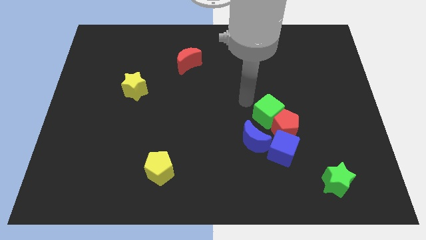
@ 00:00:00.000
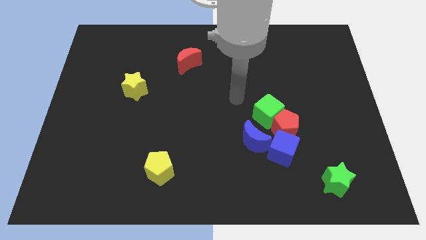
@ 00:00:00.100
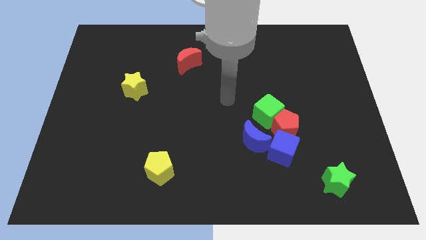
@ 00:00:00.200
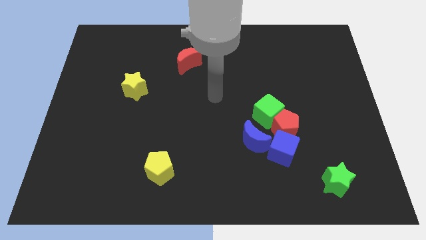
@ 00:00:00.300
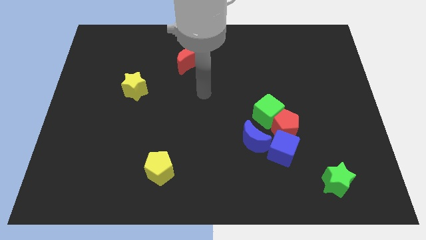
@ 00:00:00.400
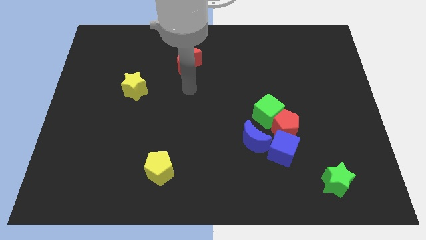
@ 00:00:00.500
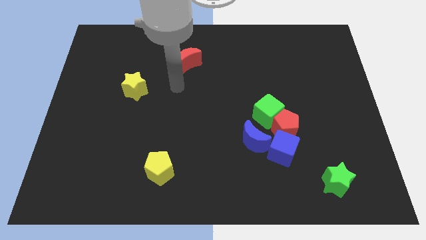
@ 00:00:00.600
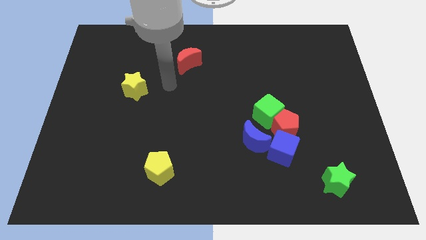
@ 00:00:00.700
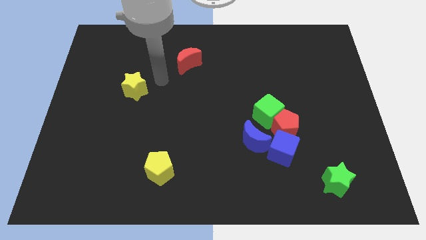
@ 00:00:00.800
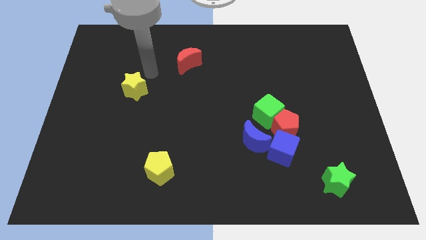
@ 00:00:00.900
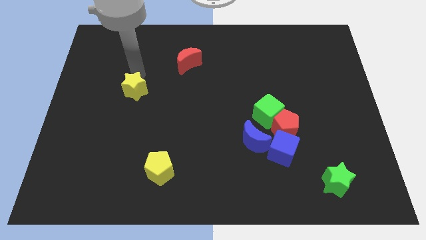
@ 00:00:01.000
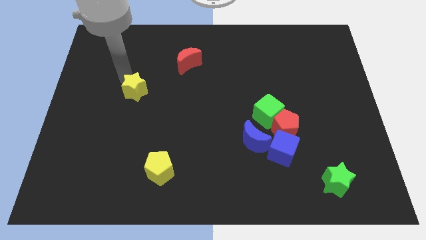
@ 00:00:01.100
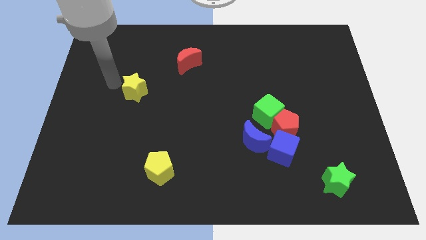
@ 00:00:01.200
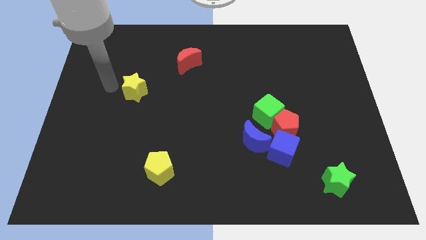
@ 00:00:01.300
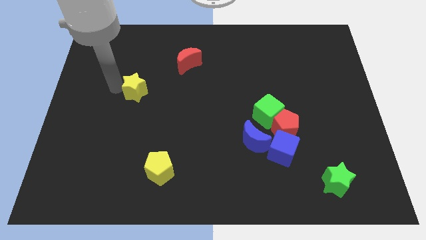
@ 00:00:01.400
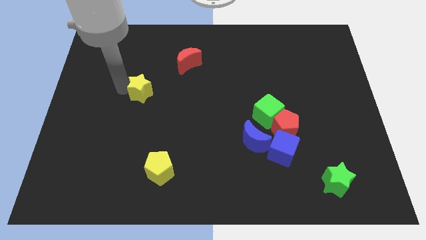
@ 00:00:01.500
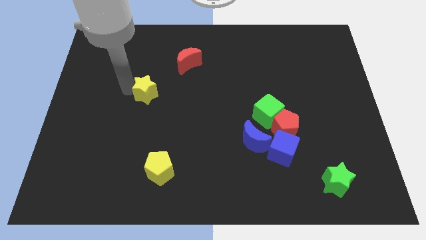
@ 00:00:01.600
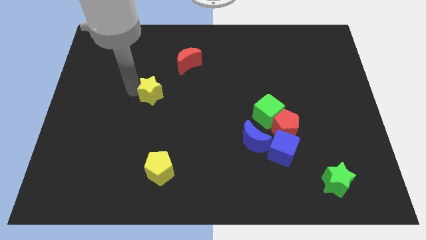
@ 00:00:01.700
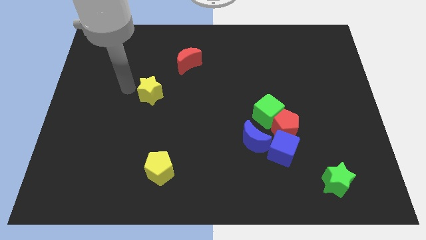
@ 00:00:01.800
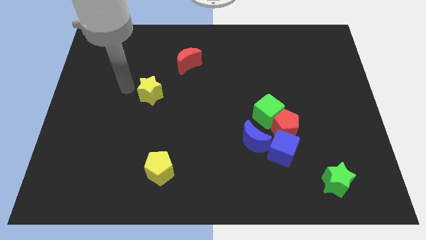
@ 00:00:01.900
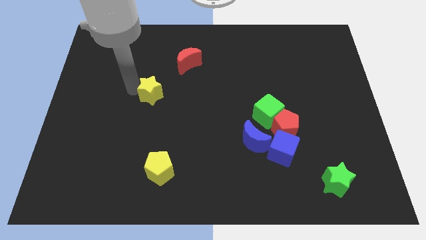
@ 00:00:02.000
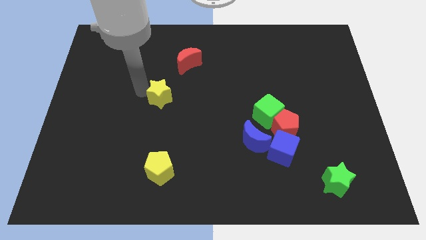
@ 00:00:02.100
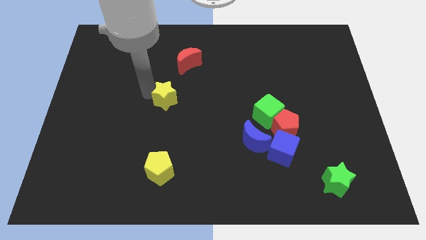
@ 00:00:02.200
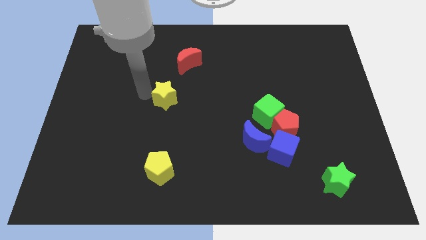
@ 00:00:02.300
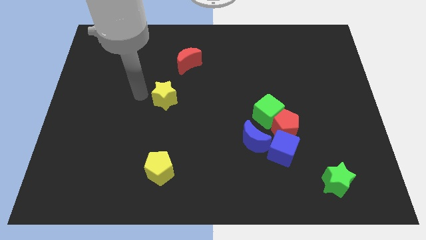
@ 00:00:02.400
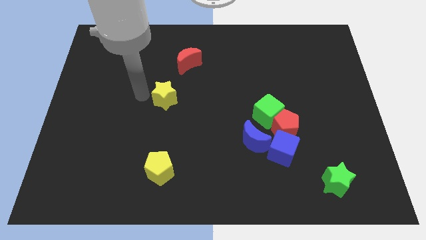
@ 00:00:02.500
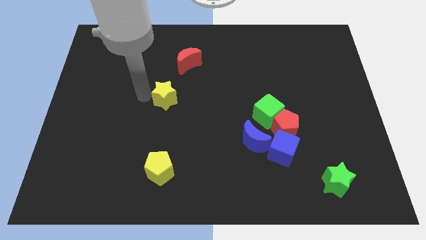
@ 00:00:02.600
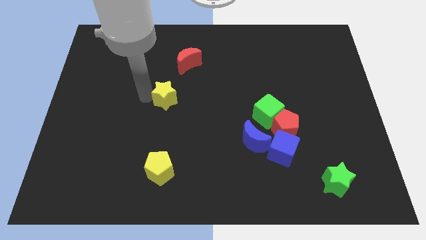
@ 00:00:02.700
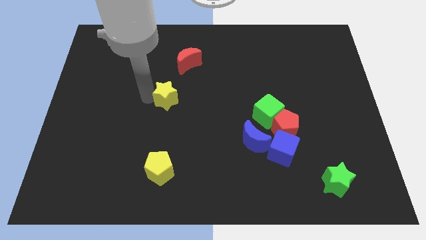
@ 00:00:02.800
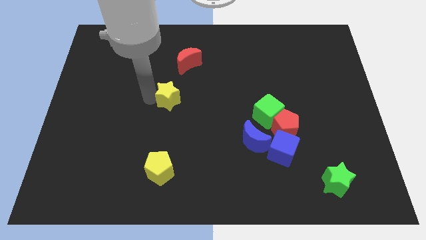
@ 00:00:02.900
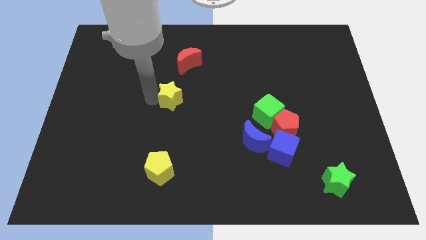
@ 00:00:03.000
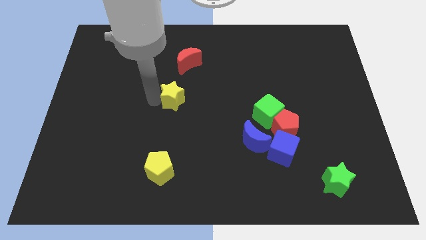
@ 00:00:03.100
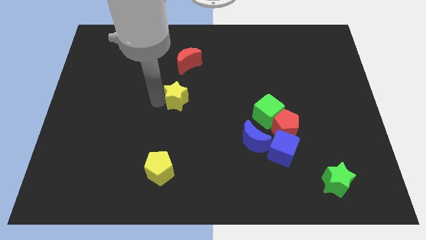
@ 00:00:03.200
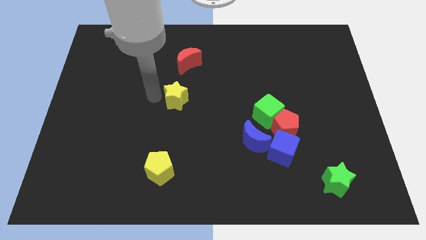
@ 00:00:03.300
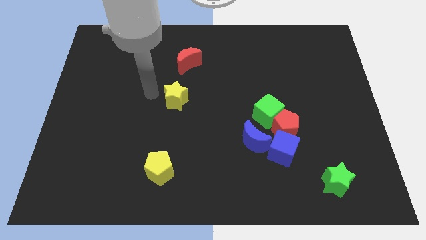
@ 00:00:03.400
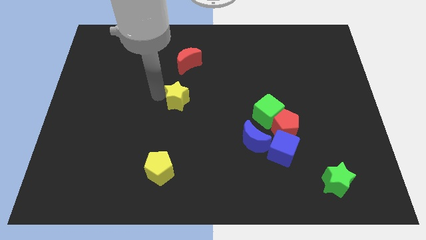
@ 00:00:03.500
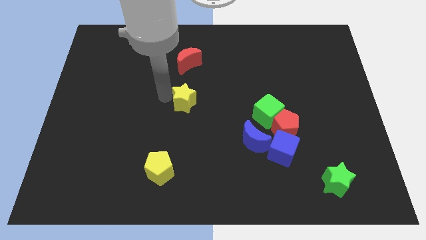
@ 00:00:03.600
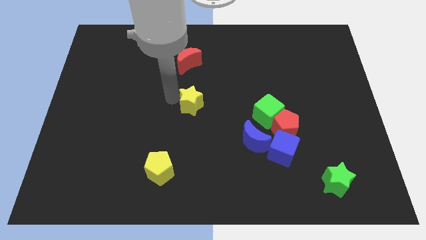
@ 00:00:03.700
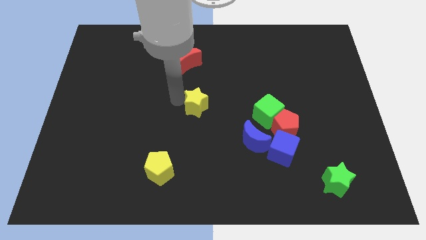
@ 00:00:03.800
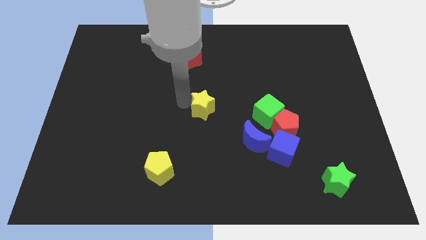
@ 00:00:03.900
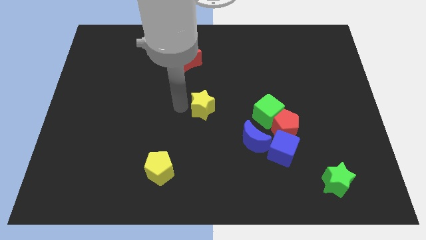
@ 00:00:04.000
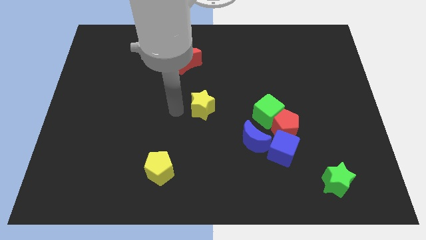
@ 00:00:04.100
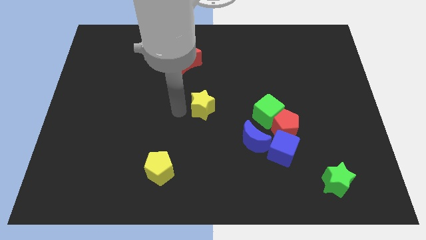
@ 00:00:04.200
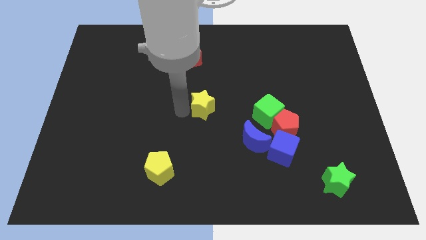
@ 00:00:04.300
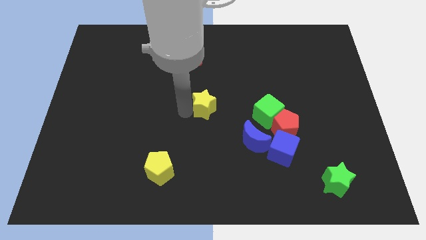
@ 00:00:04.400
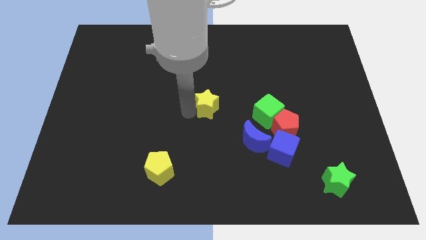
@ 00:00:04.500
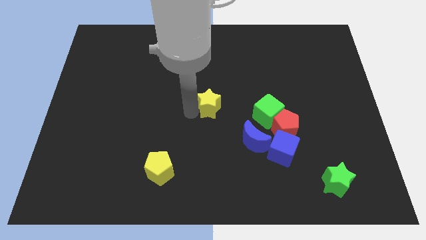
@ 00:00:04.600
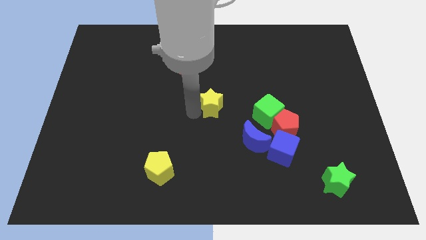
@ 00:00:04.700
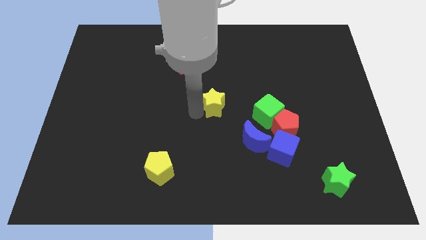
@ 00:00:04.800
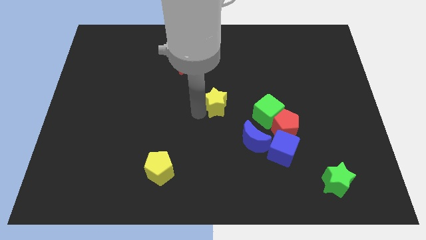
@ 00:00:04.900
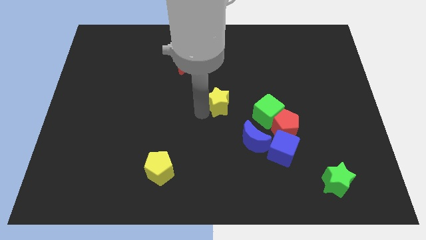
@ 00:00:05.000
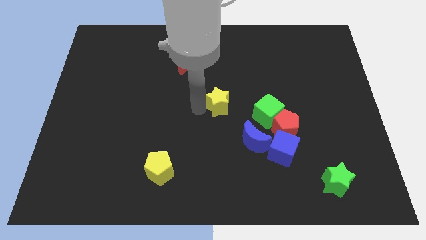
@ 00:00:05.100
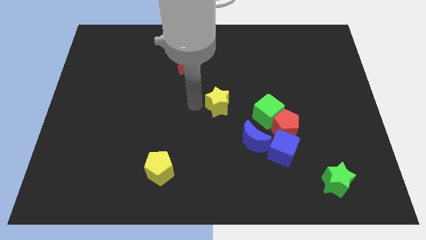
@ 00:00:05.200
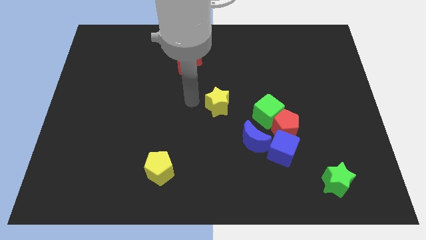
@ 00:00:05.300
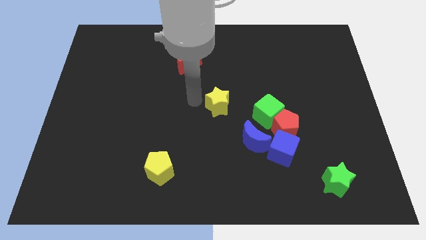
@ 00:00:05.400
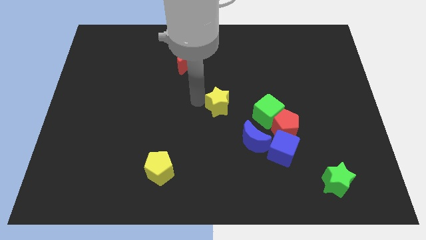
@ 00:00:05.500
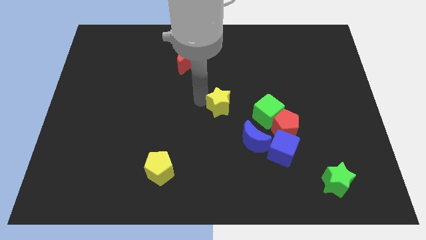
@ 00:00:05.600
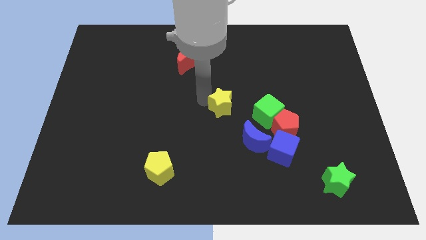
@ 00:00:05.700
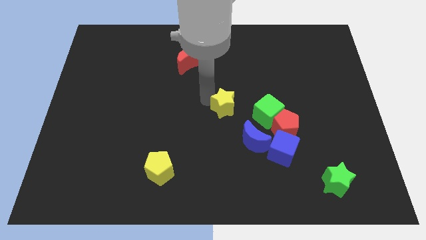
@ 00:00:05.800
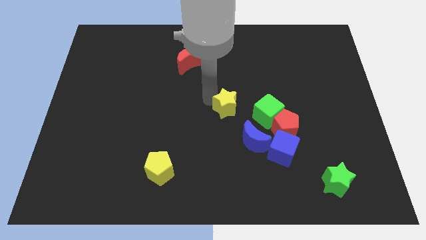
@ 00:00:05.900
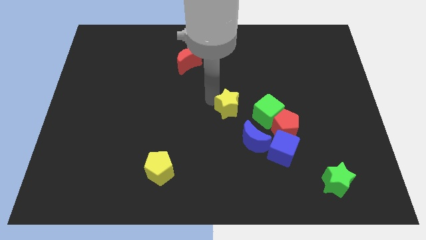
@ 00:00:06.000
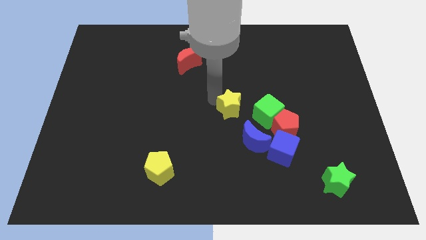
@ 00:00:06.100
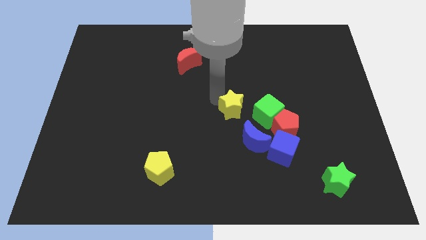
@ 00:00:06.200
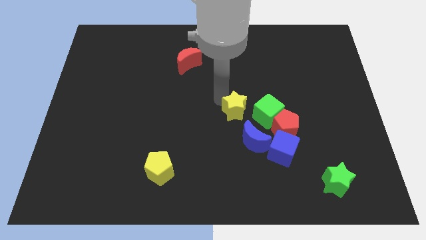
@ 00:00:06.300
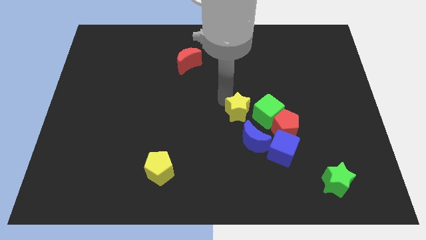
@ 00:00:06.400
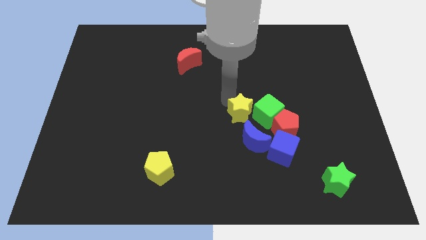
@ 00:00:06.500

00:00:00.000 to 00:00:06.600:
move the yellow star close to the green cube
